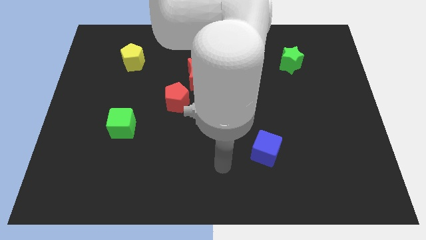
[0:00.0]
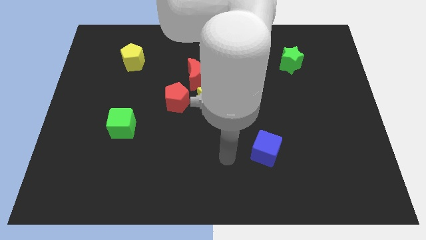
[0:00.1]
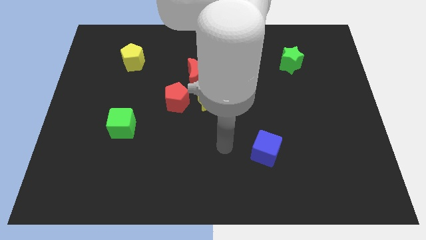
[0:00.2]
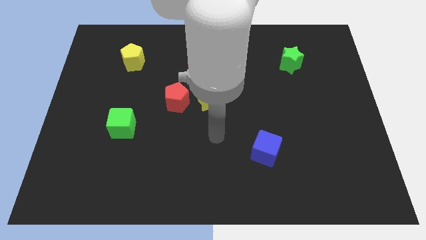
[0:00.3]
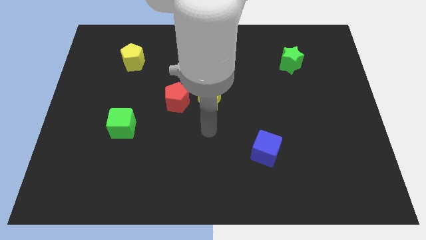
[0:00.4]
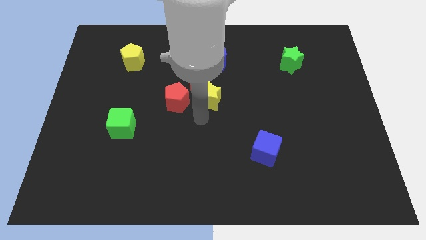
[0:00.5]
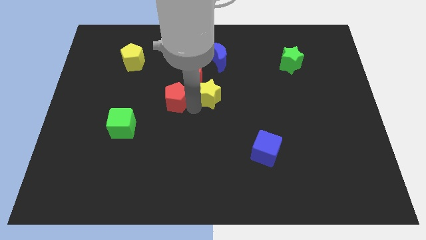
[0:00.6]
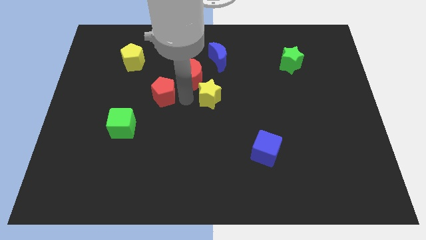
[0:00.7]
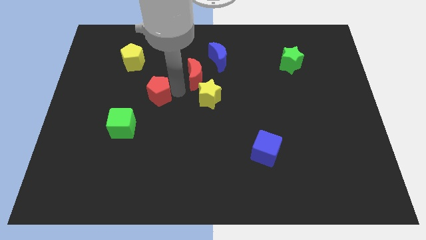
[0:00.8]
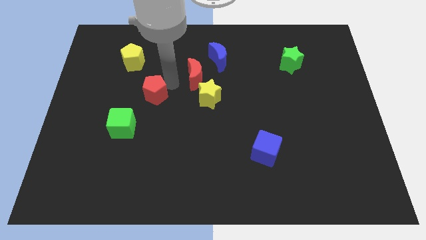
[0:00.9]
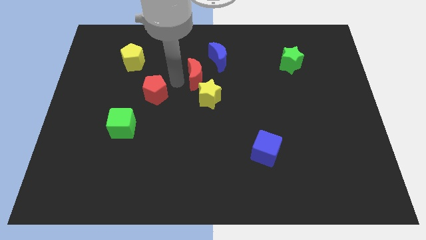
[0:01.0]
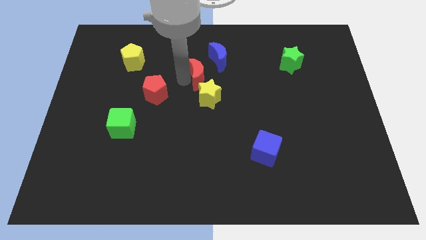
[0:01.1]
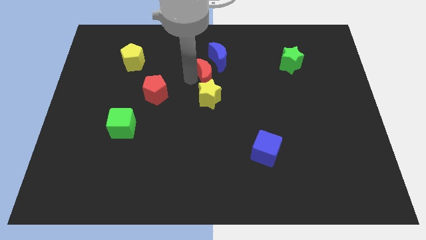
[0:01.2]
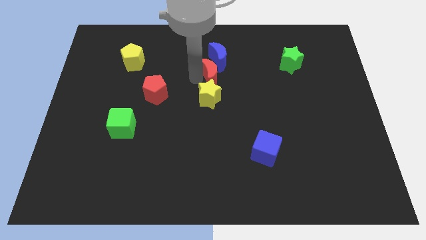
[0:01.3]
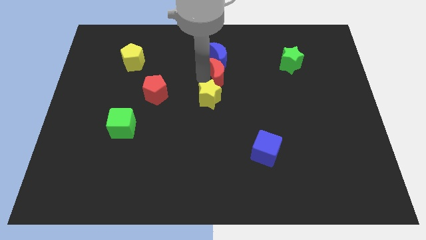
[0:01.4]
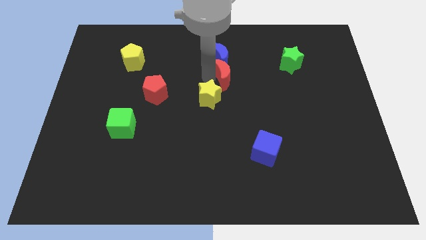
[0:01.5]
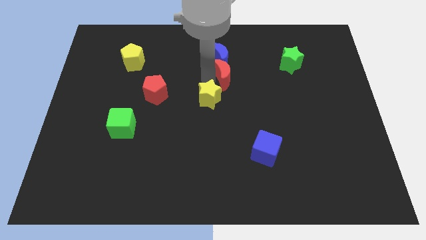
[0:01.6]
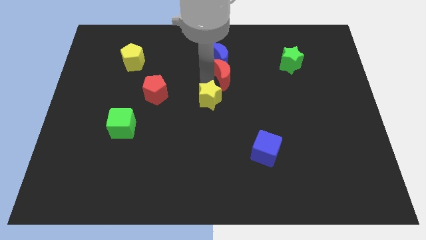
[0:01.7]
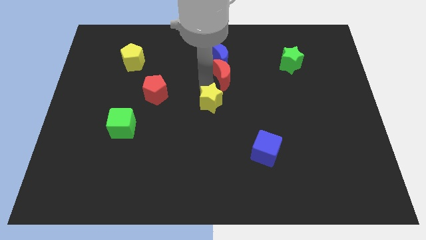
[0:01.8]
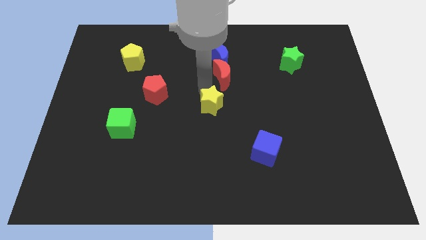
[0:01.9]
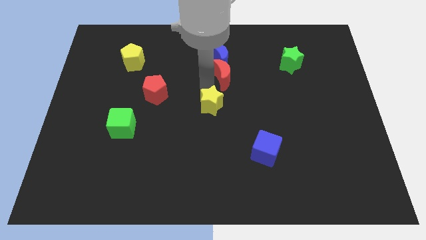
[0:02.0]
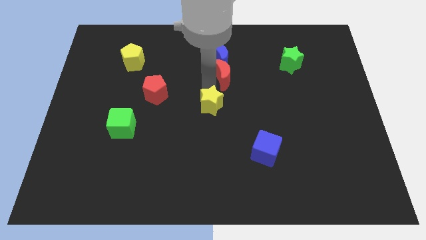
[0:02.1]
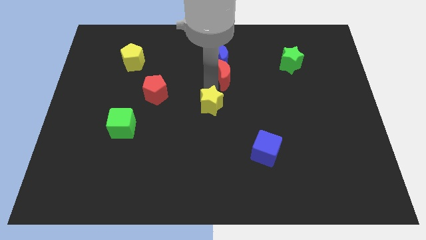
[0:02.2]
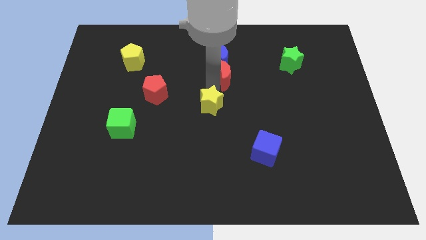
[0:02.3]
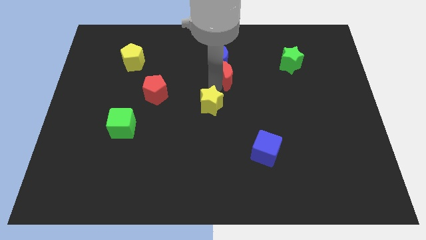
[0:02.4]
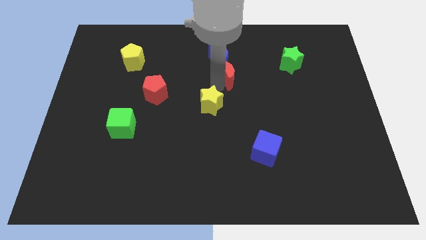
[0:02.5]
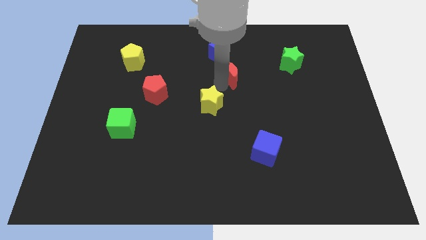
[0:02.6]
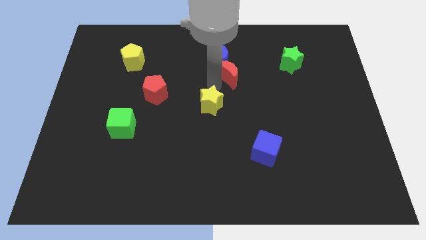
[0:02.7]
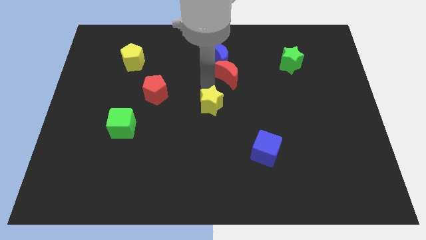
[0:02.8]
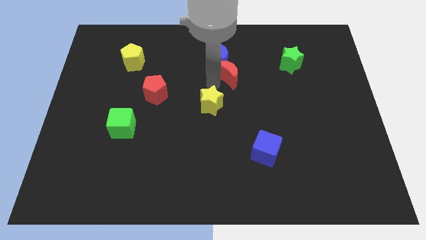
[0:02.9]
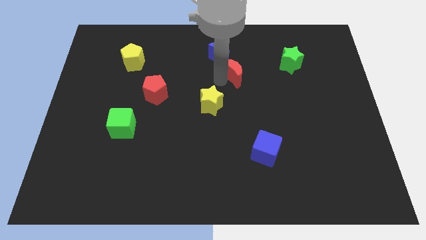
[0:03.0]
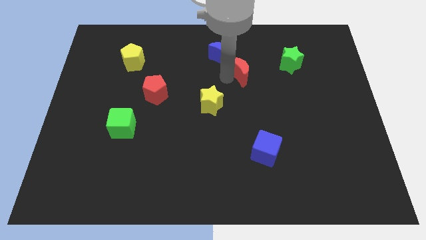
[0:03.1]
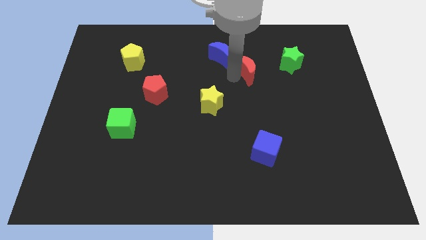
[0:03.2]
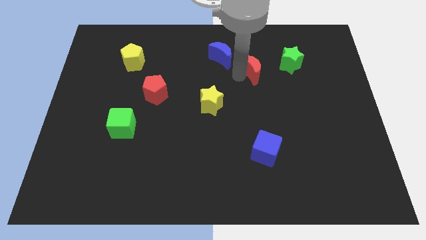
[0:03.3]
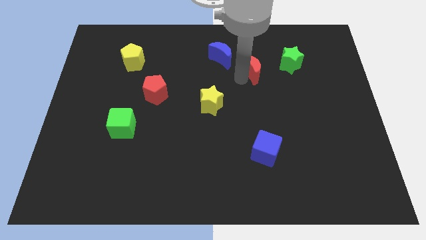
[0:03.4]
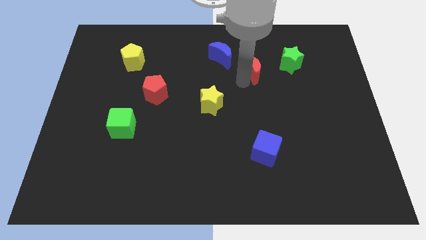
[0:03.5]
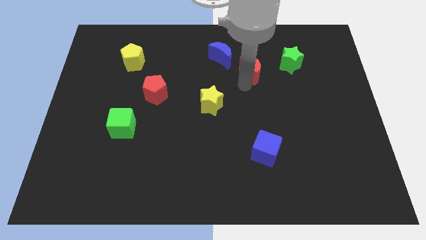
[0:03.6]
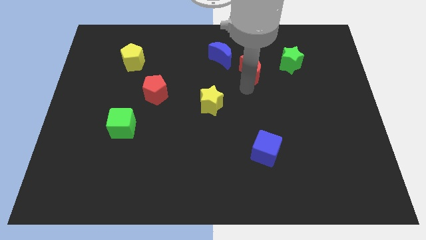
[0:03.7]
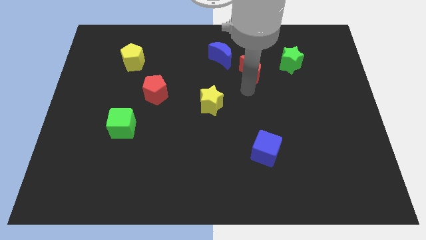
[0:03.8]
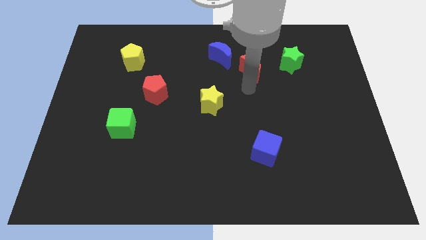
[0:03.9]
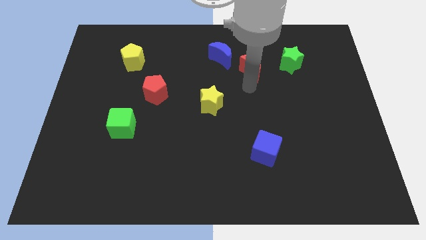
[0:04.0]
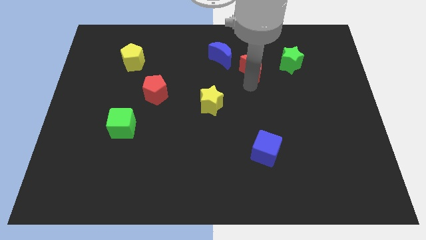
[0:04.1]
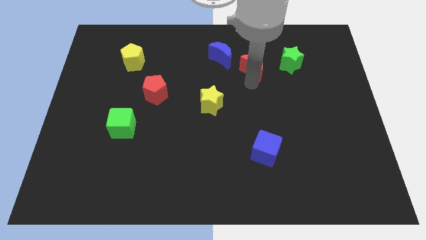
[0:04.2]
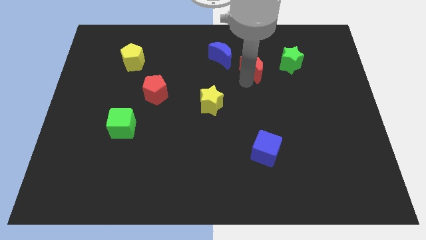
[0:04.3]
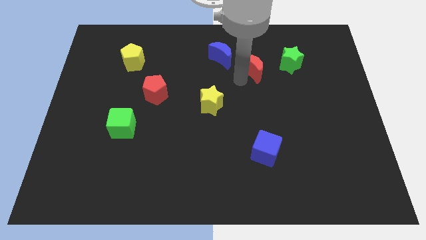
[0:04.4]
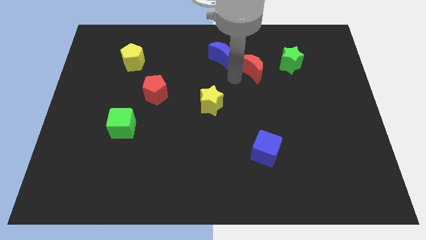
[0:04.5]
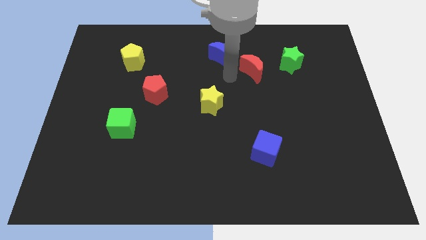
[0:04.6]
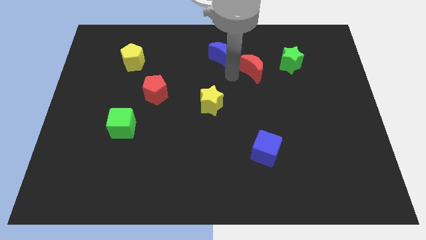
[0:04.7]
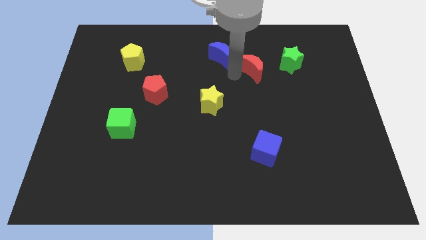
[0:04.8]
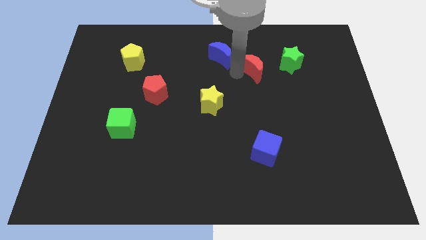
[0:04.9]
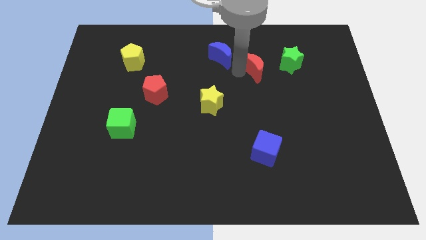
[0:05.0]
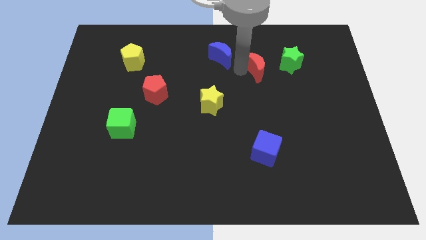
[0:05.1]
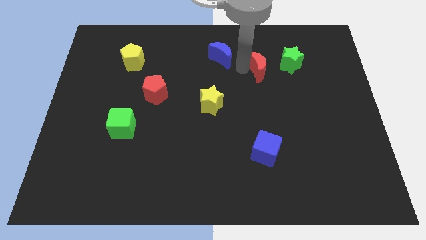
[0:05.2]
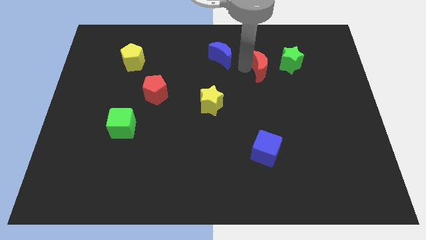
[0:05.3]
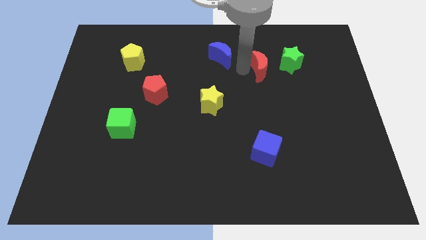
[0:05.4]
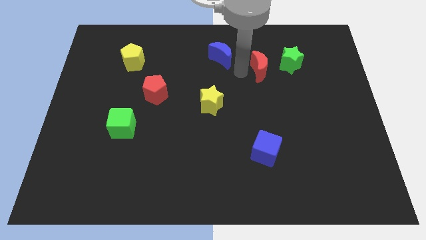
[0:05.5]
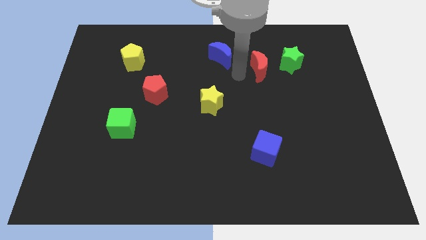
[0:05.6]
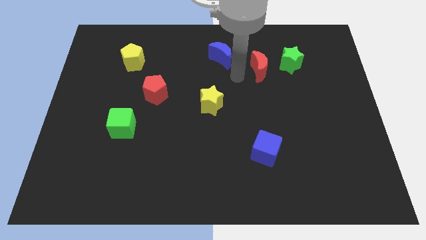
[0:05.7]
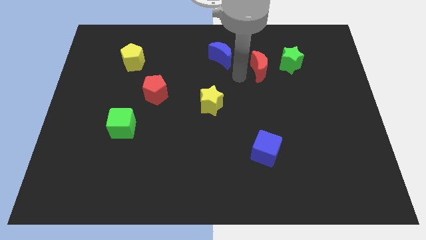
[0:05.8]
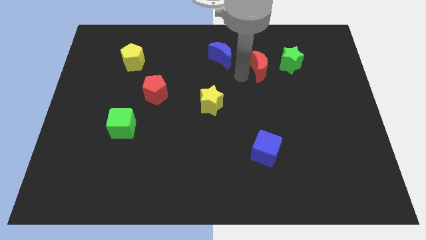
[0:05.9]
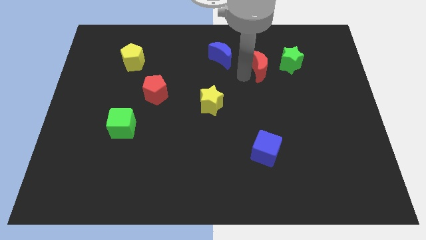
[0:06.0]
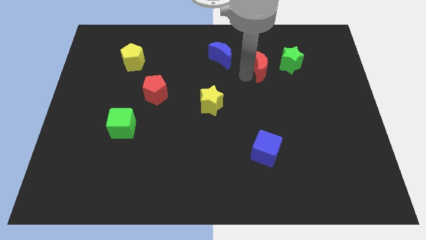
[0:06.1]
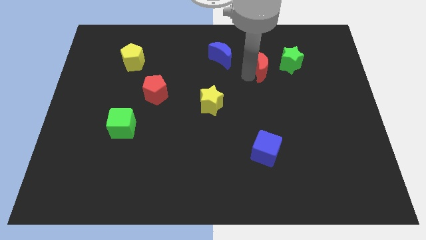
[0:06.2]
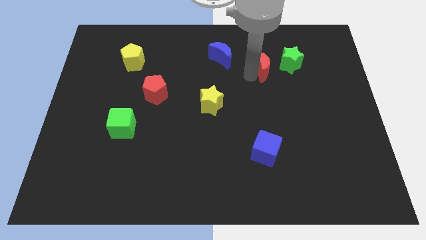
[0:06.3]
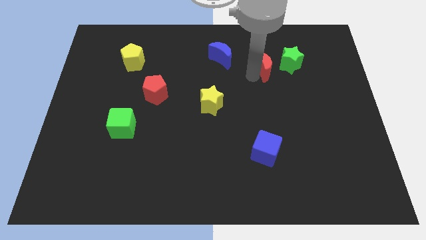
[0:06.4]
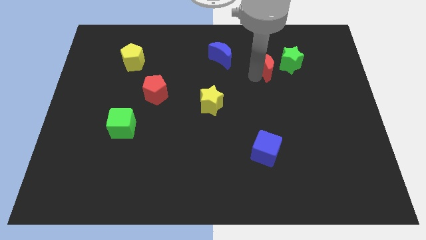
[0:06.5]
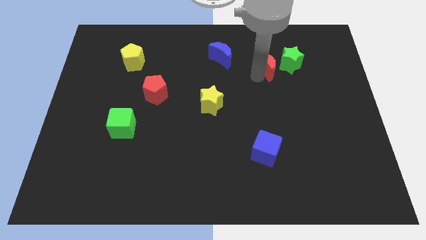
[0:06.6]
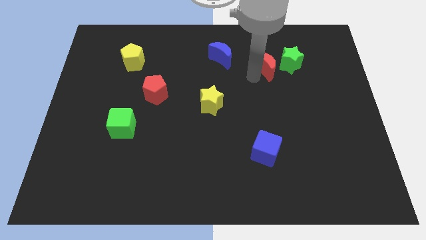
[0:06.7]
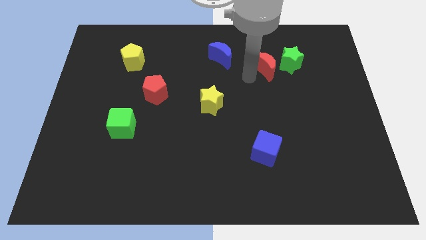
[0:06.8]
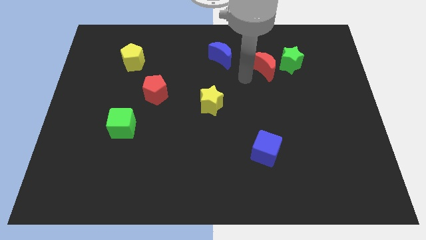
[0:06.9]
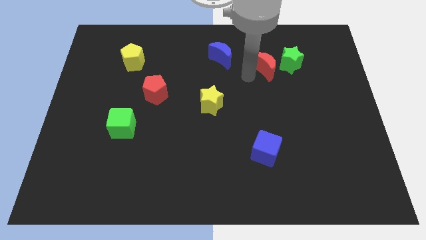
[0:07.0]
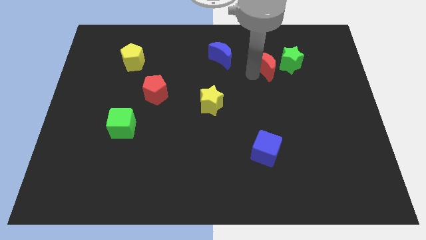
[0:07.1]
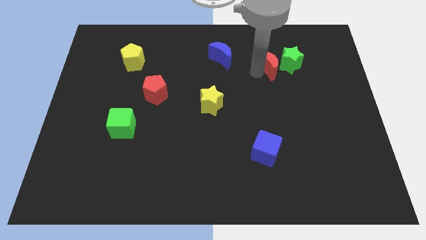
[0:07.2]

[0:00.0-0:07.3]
move the red moon towards the green star
